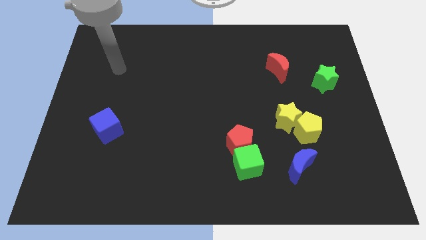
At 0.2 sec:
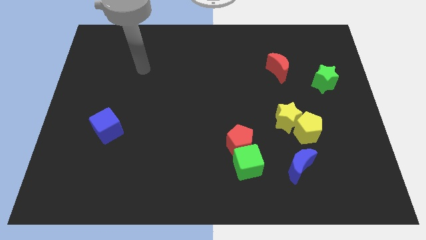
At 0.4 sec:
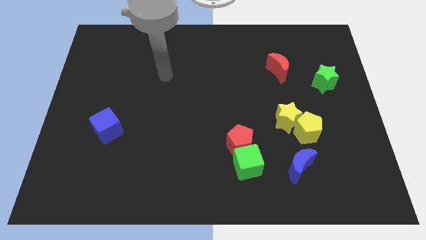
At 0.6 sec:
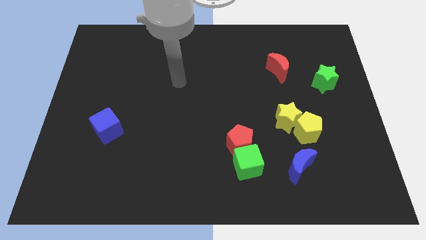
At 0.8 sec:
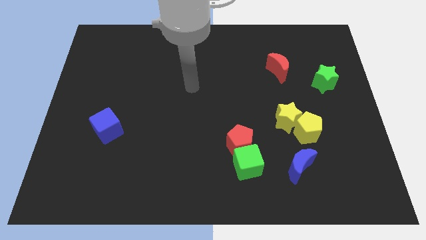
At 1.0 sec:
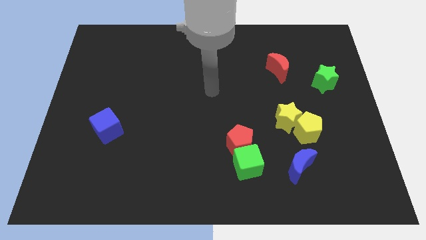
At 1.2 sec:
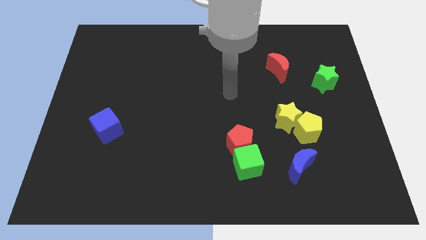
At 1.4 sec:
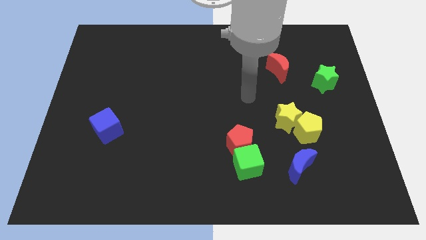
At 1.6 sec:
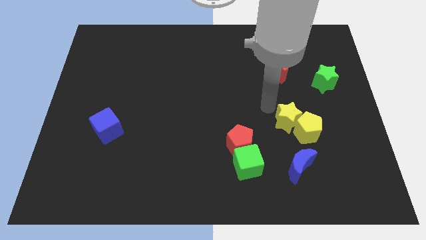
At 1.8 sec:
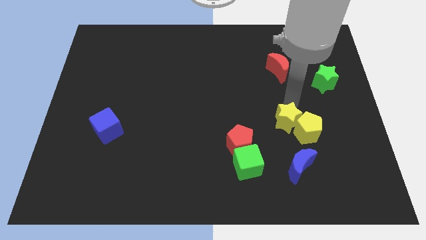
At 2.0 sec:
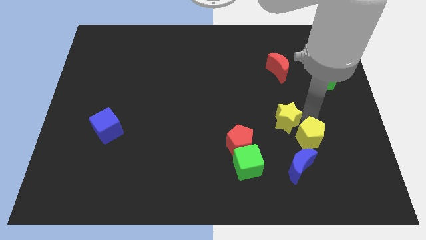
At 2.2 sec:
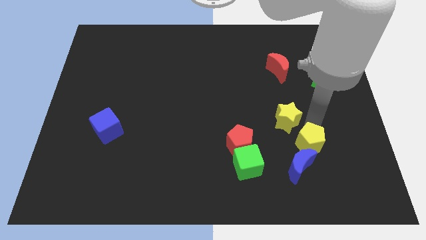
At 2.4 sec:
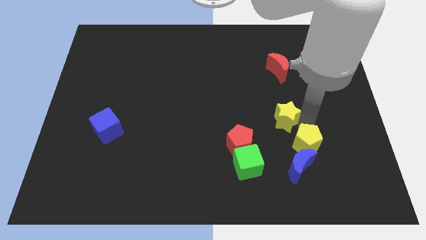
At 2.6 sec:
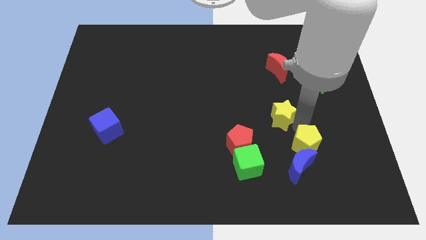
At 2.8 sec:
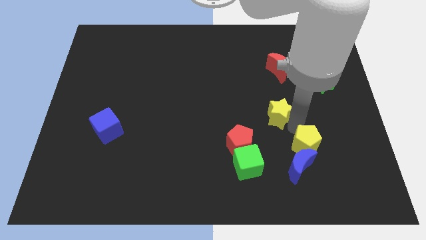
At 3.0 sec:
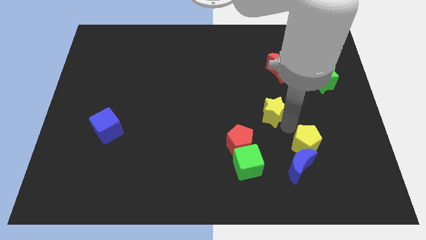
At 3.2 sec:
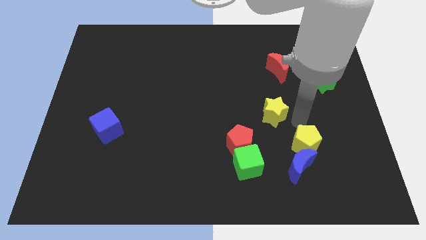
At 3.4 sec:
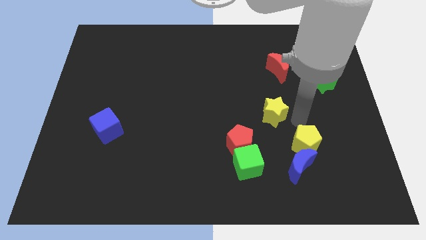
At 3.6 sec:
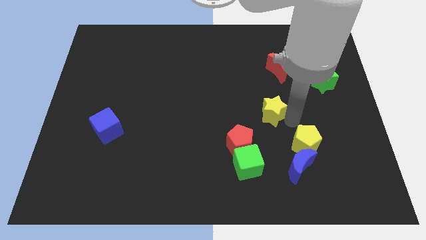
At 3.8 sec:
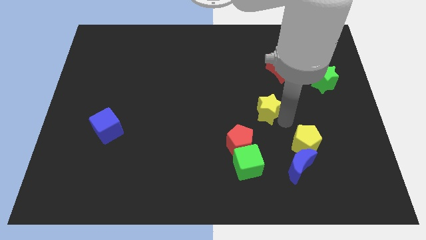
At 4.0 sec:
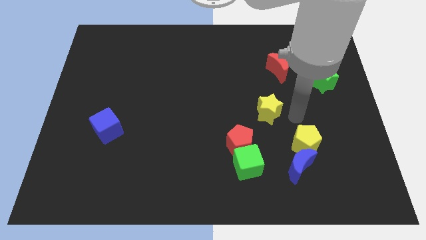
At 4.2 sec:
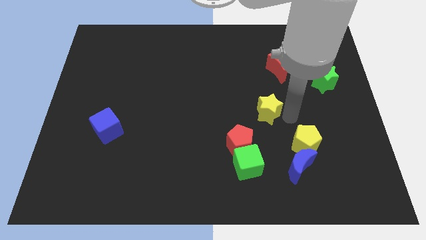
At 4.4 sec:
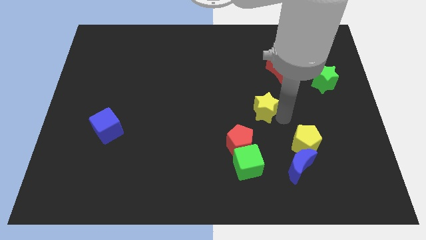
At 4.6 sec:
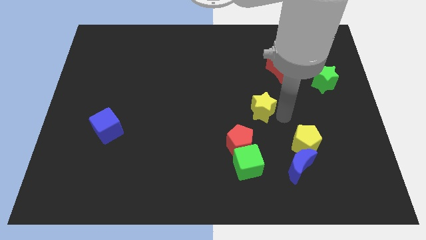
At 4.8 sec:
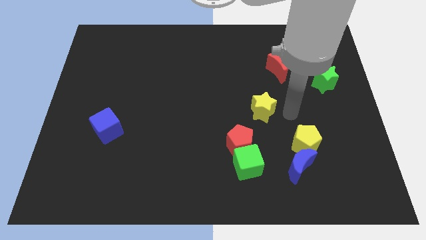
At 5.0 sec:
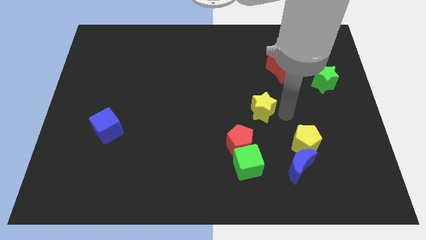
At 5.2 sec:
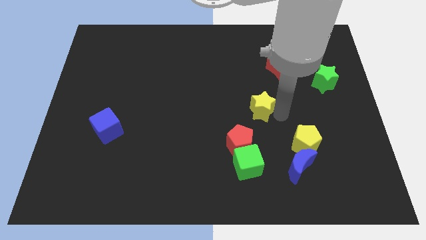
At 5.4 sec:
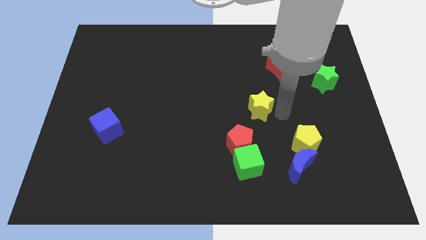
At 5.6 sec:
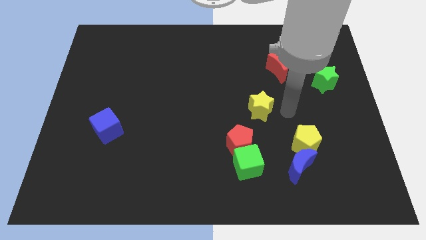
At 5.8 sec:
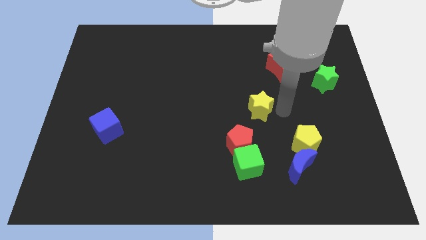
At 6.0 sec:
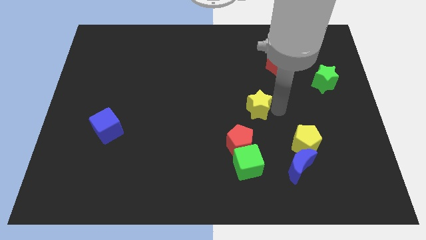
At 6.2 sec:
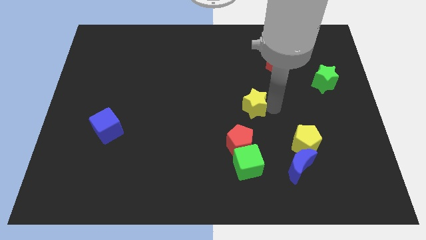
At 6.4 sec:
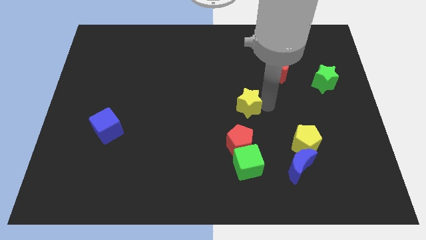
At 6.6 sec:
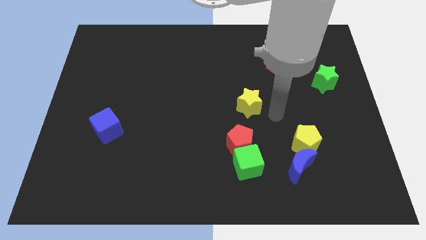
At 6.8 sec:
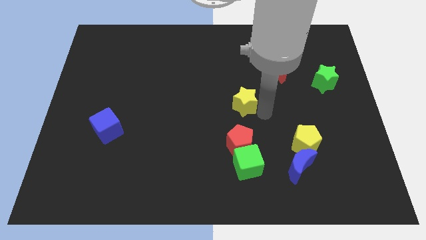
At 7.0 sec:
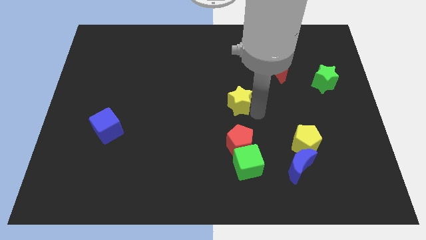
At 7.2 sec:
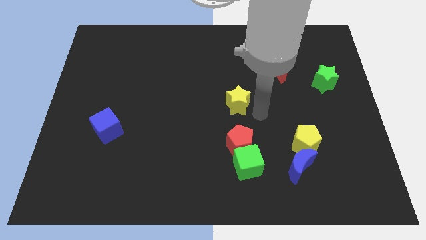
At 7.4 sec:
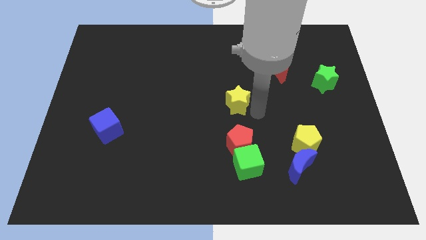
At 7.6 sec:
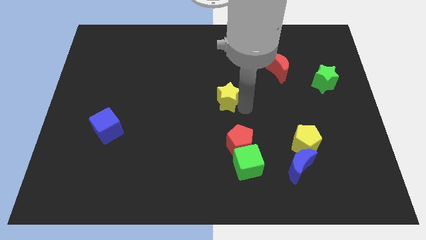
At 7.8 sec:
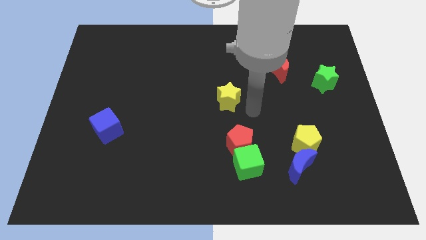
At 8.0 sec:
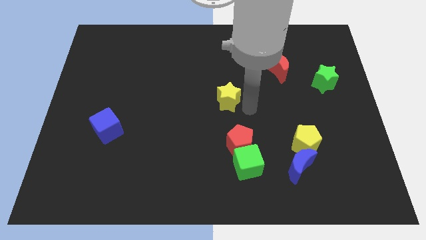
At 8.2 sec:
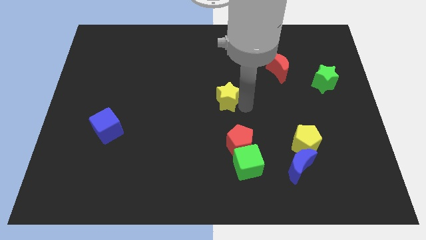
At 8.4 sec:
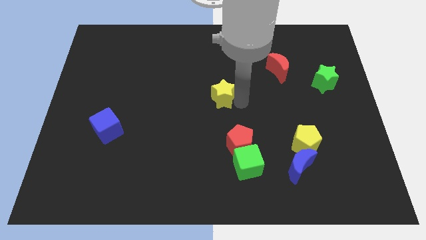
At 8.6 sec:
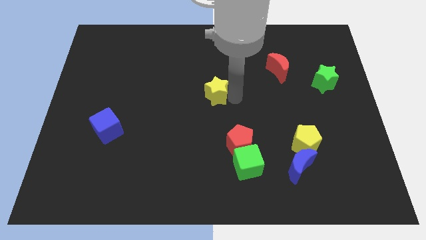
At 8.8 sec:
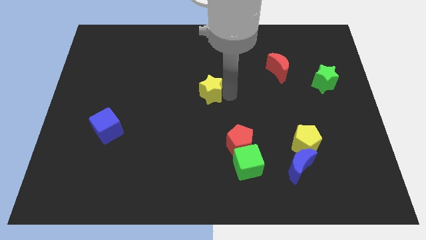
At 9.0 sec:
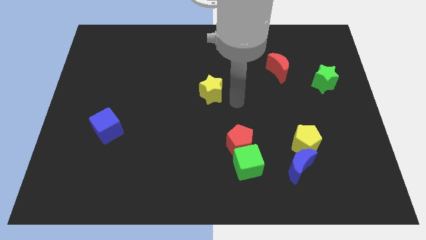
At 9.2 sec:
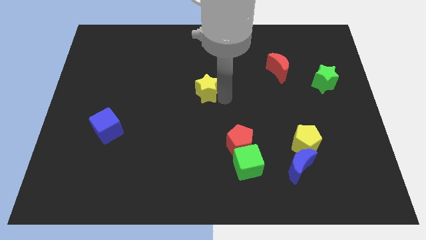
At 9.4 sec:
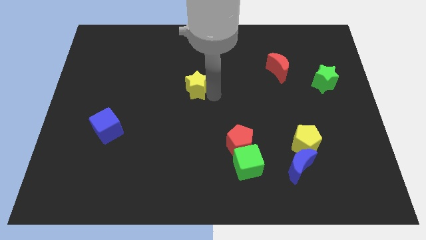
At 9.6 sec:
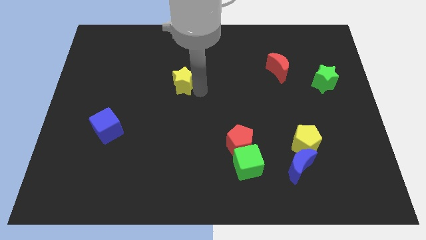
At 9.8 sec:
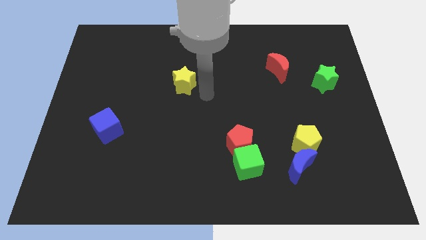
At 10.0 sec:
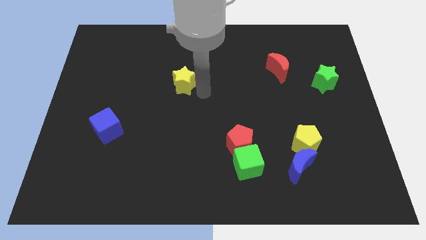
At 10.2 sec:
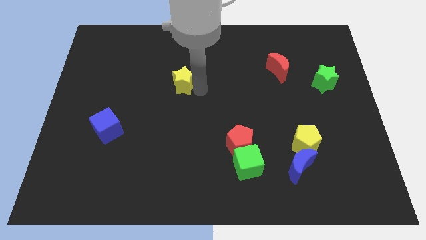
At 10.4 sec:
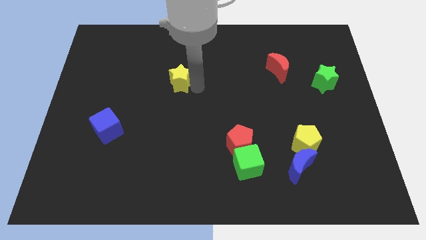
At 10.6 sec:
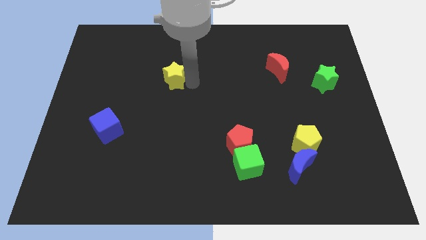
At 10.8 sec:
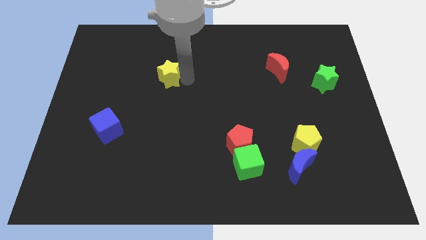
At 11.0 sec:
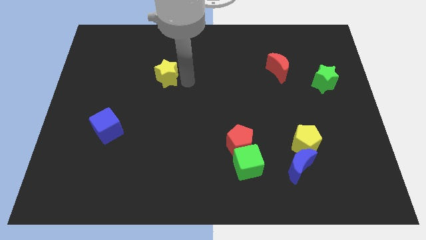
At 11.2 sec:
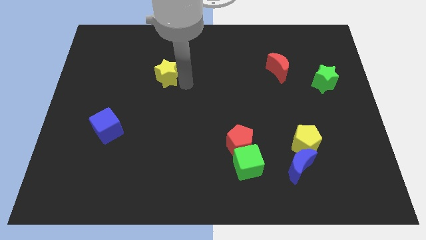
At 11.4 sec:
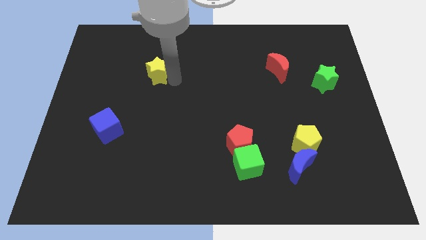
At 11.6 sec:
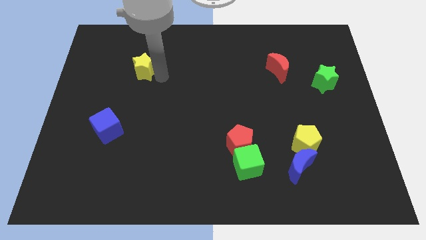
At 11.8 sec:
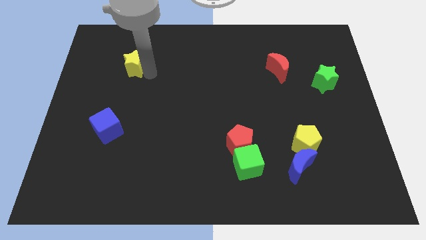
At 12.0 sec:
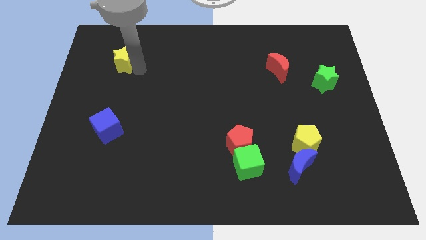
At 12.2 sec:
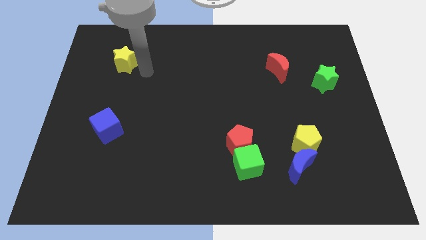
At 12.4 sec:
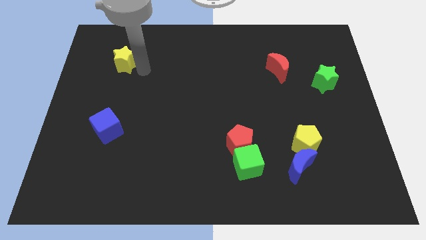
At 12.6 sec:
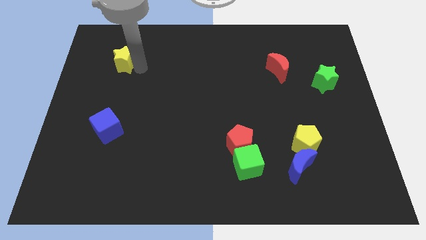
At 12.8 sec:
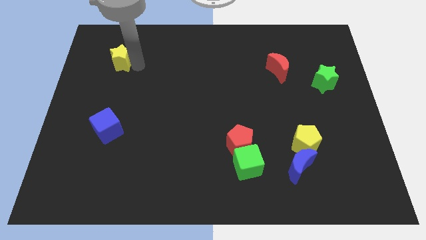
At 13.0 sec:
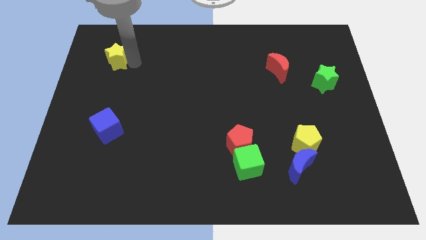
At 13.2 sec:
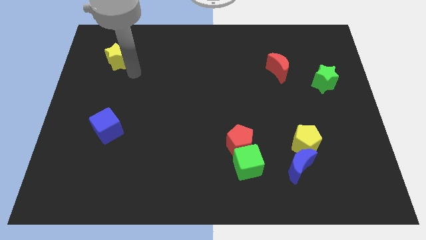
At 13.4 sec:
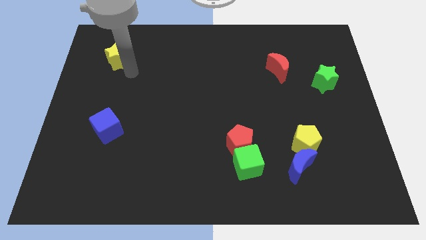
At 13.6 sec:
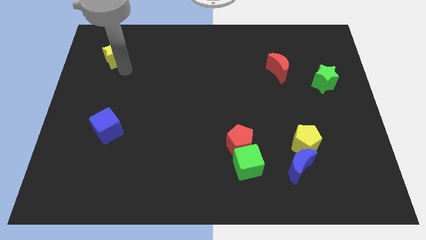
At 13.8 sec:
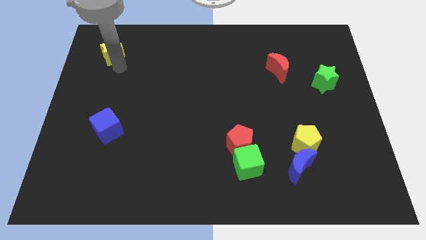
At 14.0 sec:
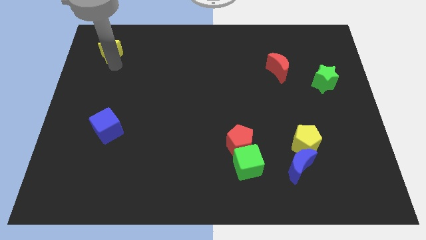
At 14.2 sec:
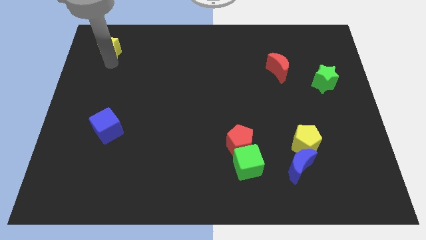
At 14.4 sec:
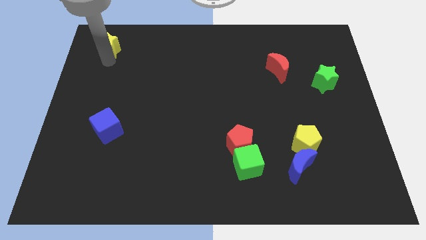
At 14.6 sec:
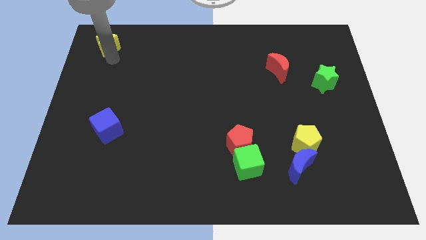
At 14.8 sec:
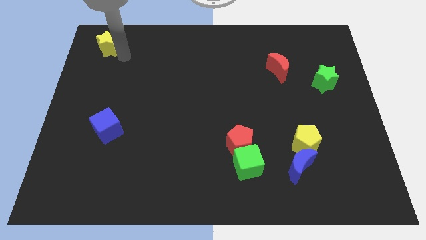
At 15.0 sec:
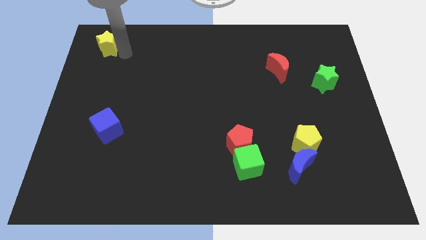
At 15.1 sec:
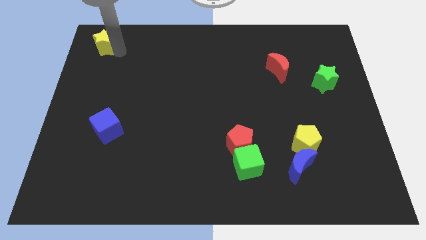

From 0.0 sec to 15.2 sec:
push the yellow star to the top left
